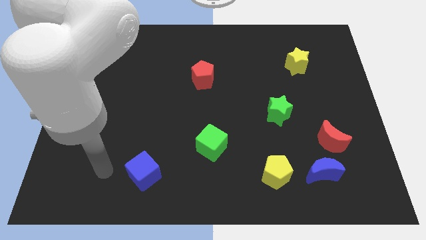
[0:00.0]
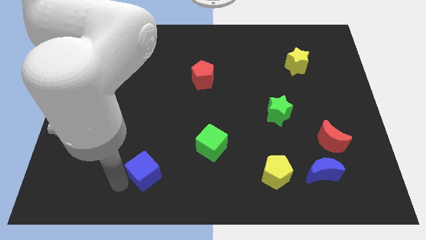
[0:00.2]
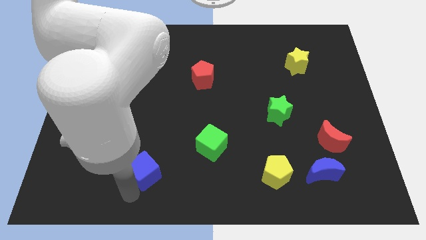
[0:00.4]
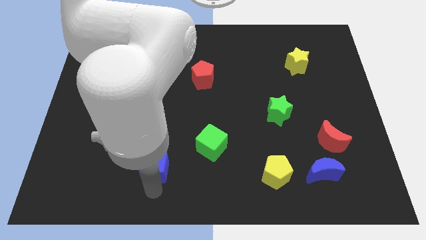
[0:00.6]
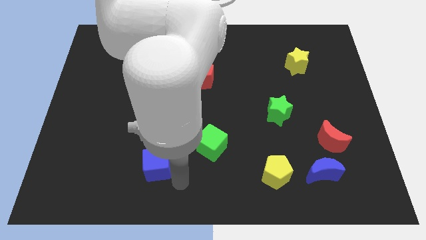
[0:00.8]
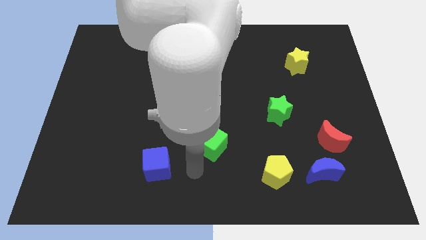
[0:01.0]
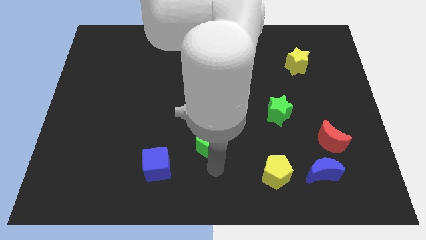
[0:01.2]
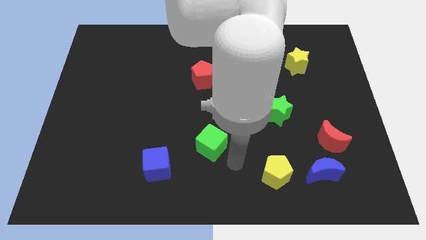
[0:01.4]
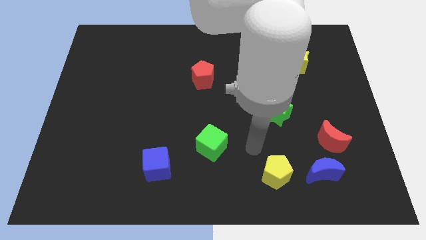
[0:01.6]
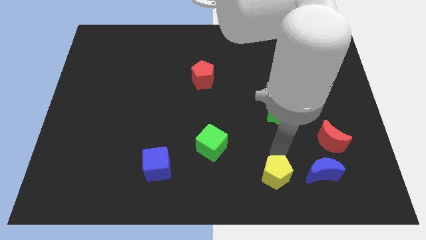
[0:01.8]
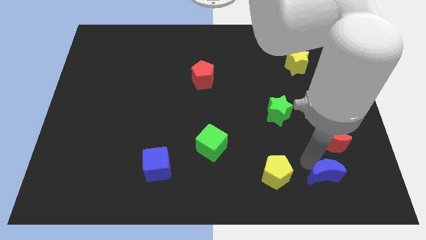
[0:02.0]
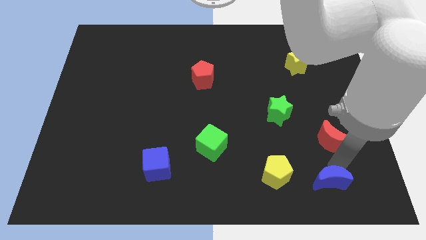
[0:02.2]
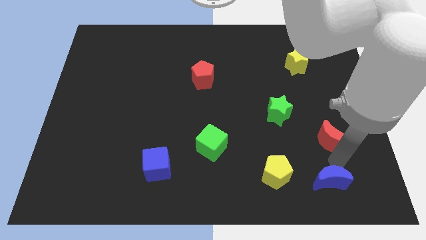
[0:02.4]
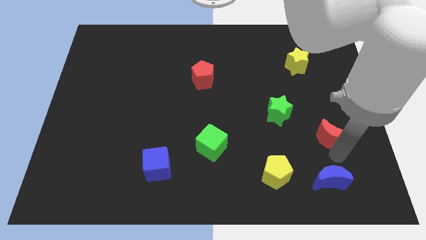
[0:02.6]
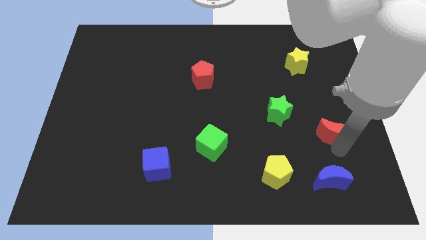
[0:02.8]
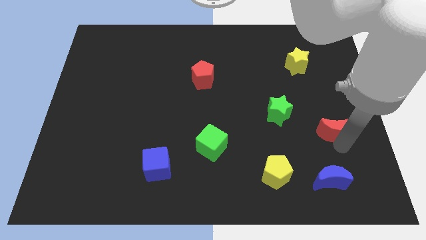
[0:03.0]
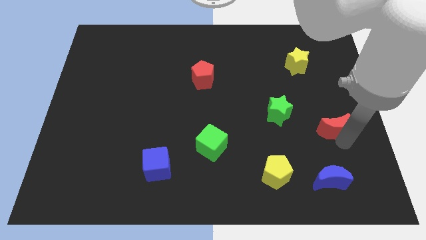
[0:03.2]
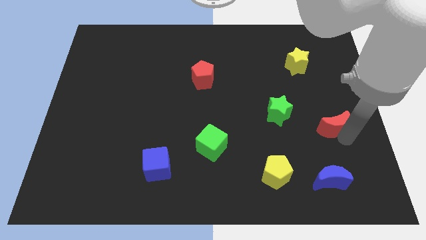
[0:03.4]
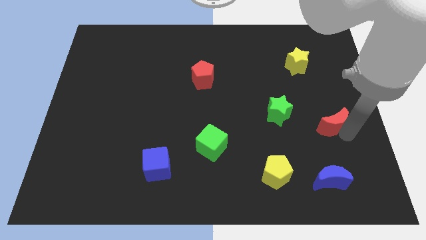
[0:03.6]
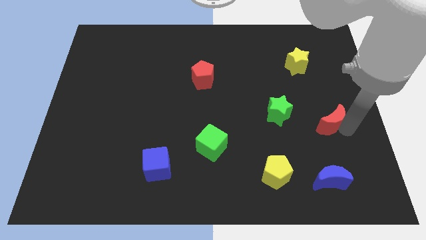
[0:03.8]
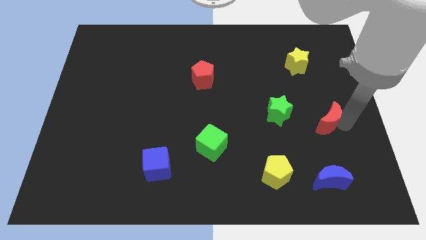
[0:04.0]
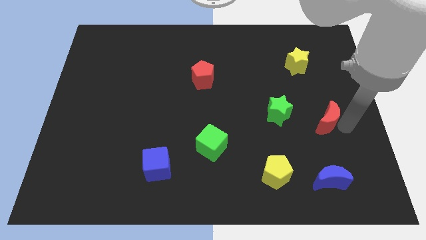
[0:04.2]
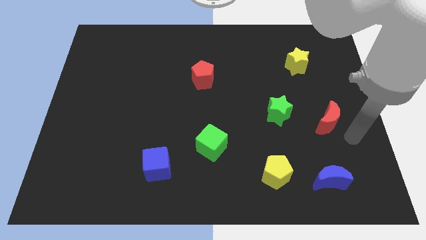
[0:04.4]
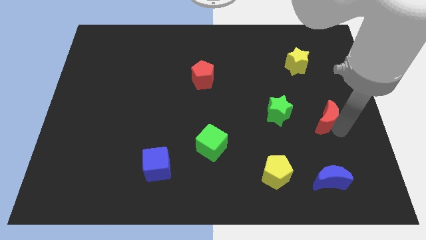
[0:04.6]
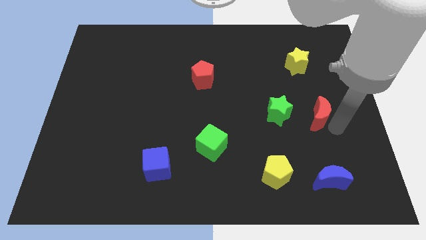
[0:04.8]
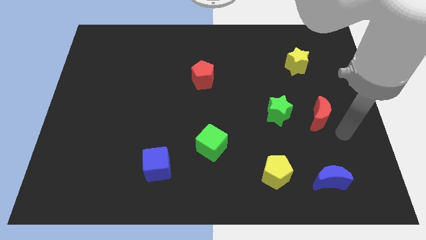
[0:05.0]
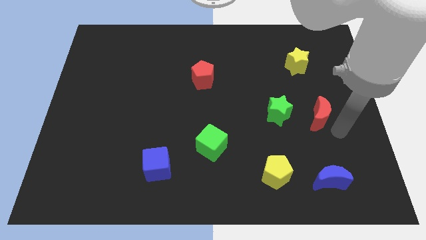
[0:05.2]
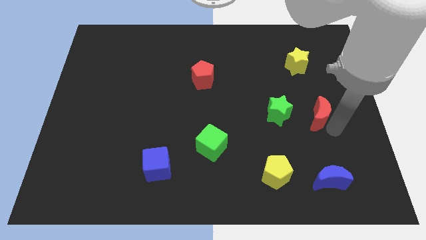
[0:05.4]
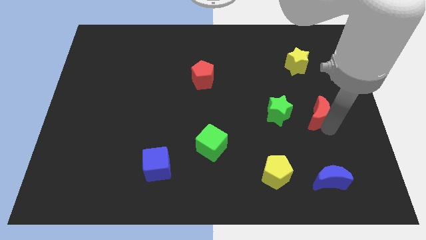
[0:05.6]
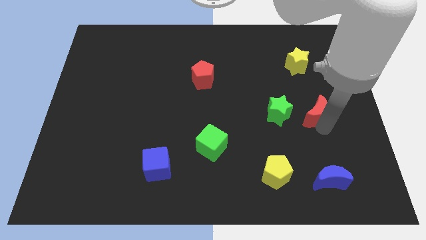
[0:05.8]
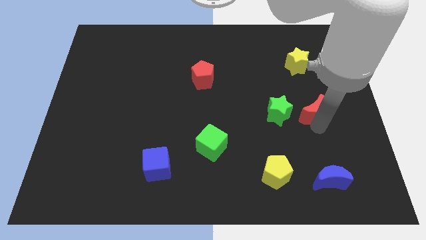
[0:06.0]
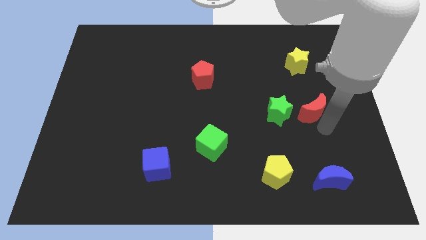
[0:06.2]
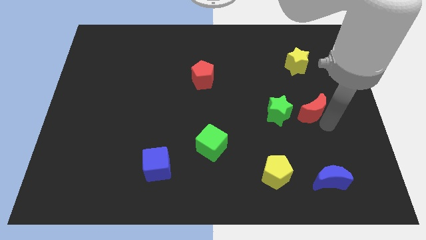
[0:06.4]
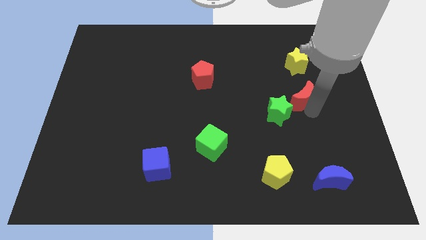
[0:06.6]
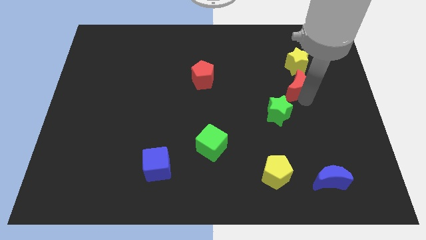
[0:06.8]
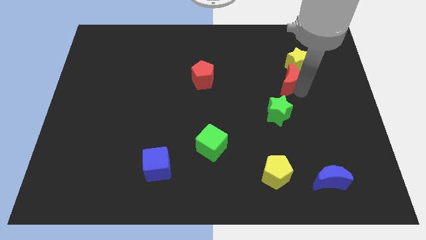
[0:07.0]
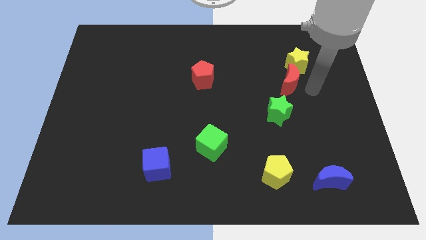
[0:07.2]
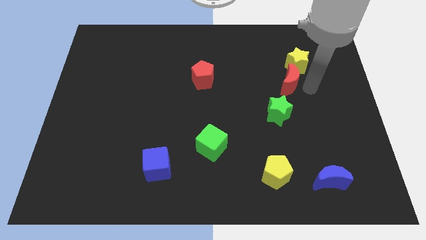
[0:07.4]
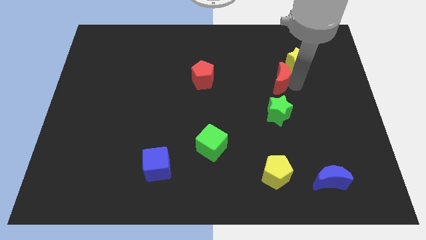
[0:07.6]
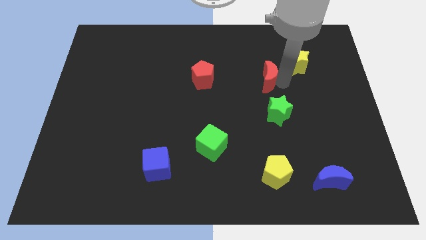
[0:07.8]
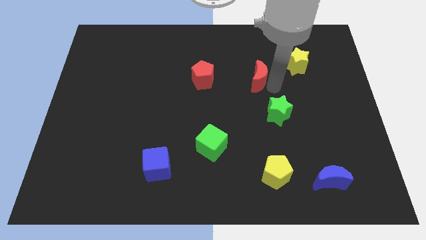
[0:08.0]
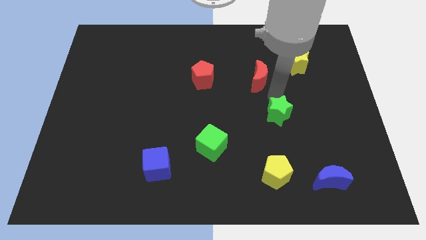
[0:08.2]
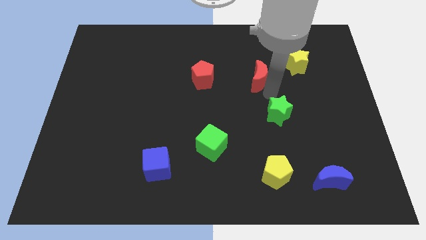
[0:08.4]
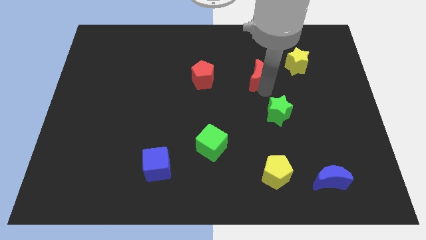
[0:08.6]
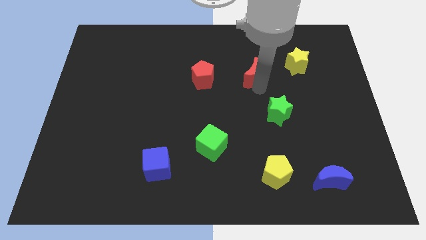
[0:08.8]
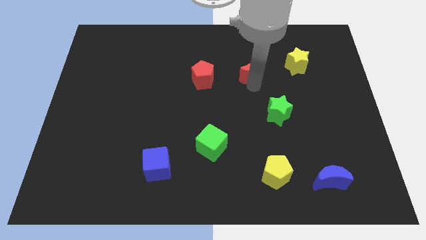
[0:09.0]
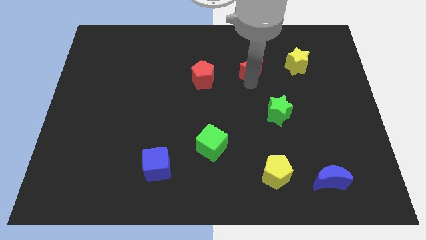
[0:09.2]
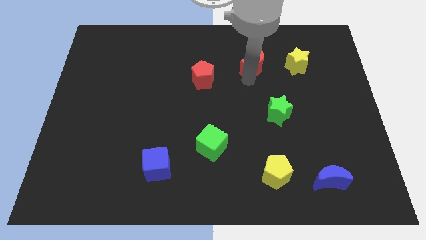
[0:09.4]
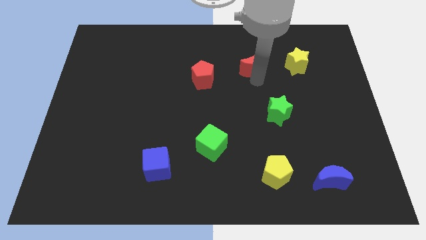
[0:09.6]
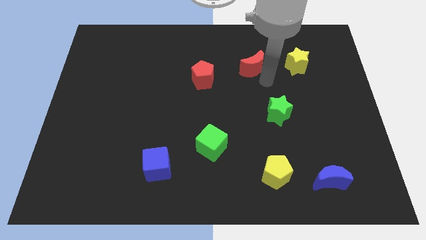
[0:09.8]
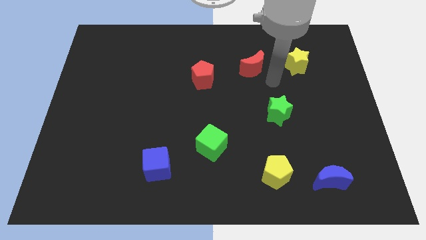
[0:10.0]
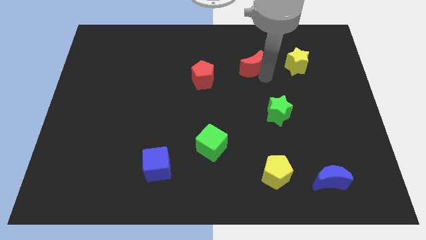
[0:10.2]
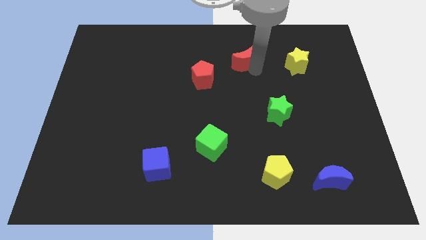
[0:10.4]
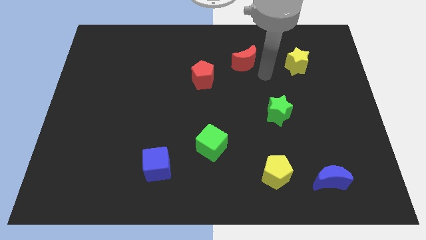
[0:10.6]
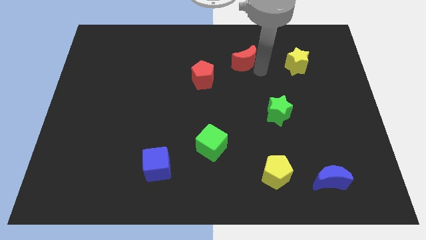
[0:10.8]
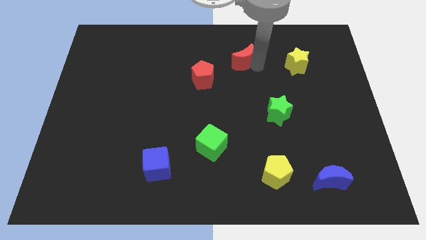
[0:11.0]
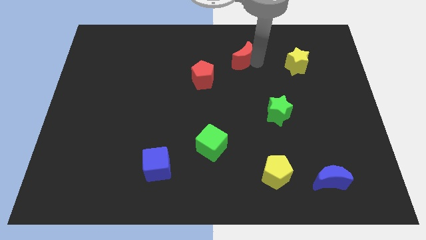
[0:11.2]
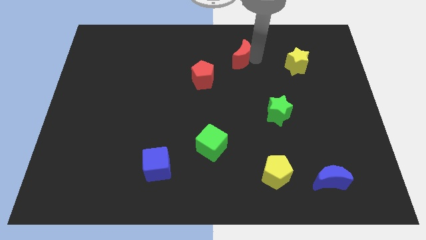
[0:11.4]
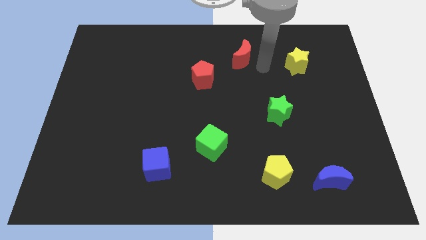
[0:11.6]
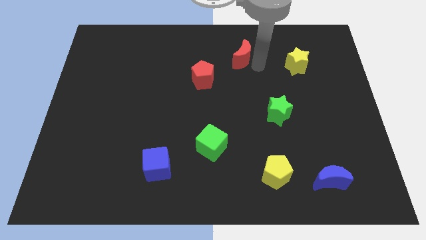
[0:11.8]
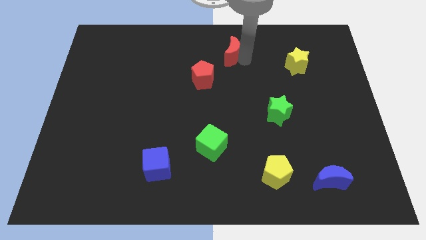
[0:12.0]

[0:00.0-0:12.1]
move the red moon to the top
